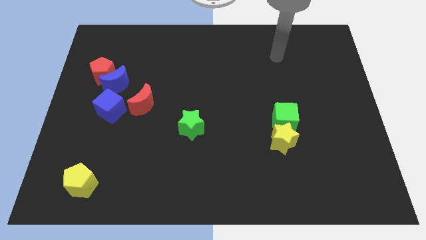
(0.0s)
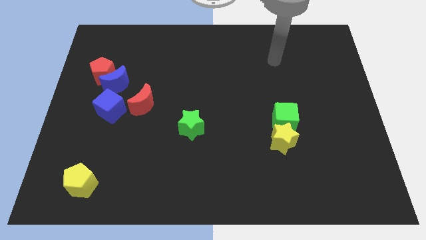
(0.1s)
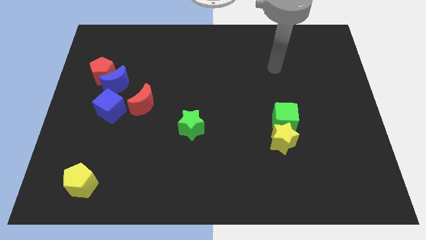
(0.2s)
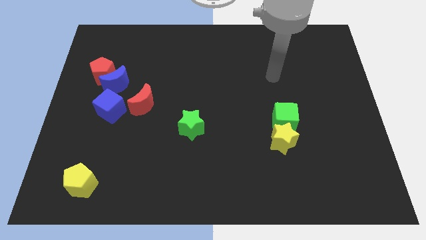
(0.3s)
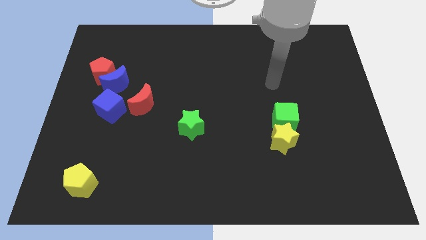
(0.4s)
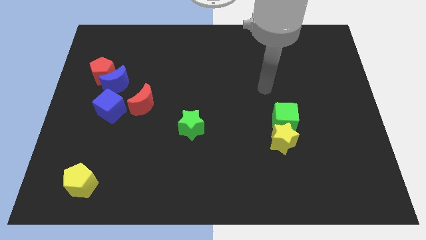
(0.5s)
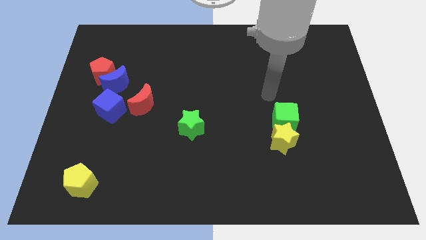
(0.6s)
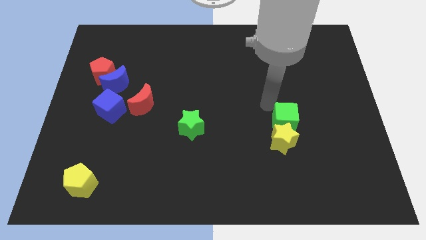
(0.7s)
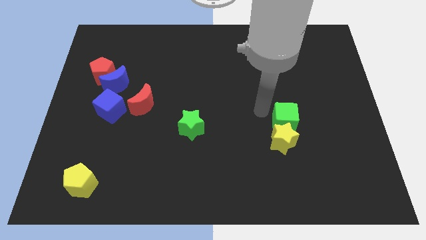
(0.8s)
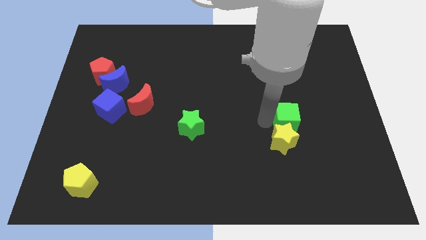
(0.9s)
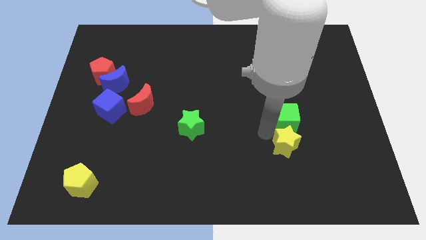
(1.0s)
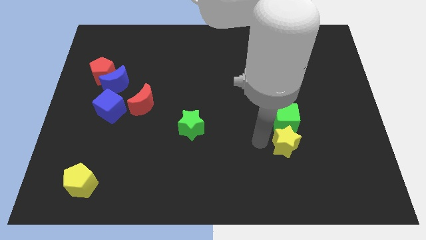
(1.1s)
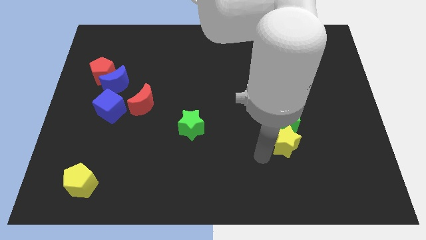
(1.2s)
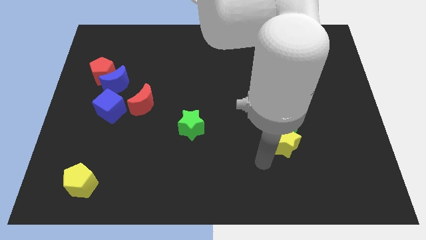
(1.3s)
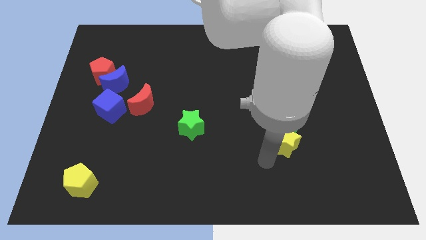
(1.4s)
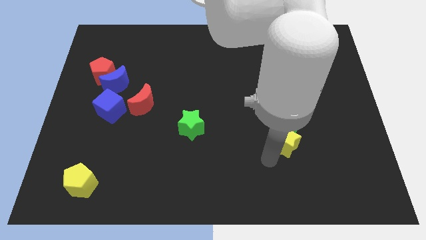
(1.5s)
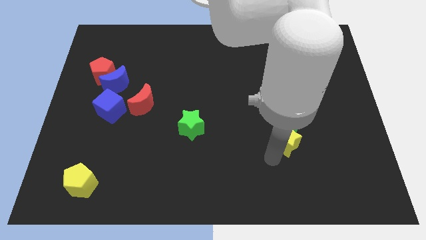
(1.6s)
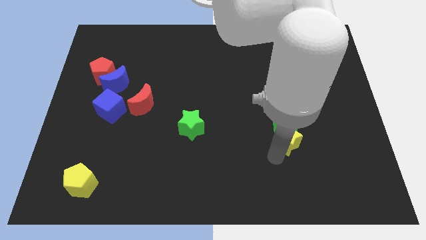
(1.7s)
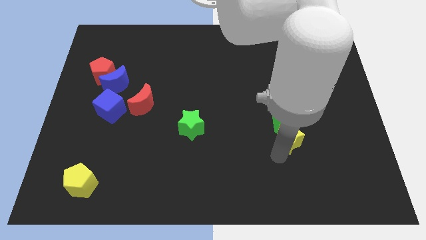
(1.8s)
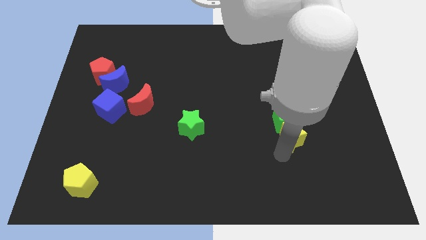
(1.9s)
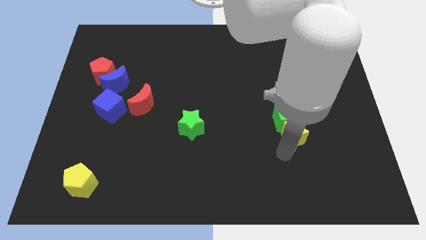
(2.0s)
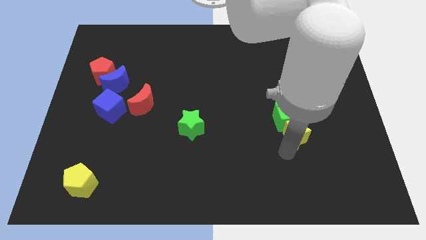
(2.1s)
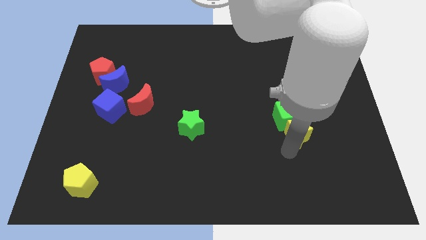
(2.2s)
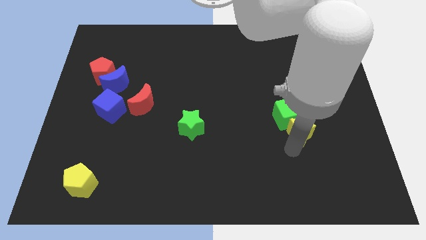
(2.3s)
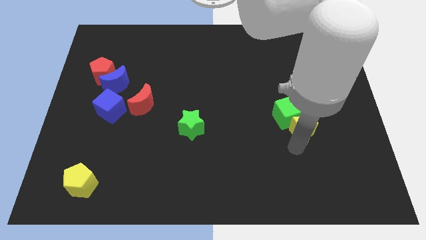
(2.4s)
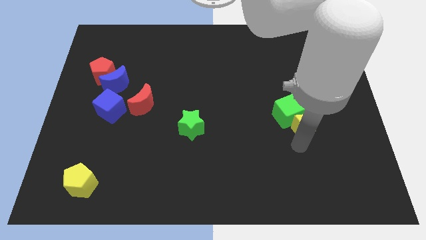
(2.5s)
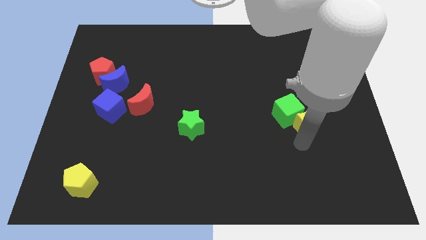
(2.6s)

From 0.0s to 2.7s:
slide the yellow star diagonally upwards and right somewhat

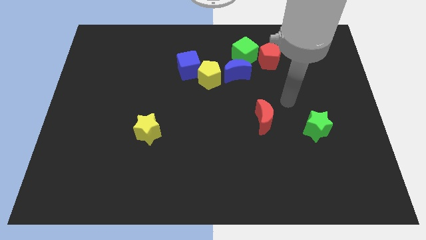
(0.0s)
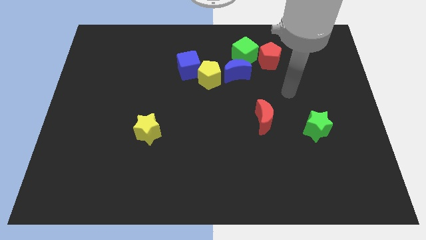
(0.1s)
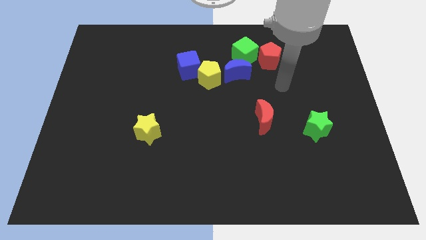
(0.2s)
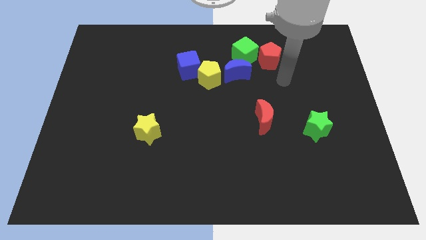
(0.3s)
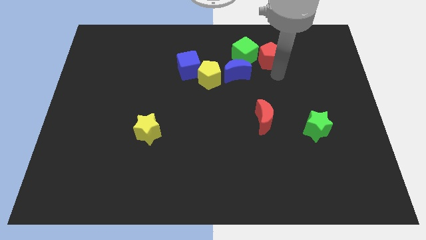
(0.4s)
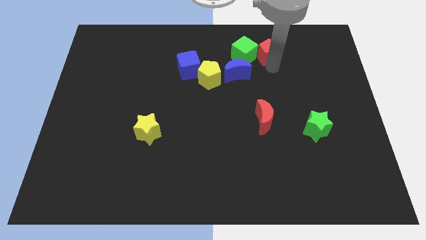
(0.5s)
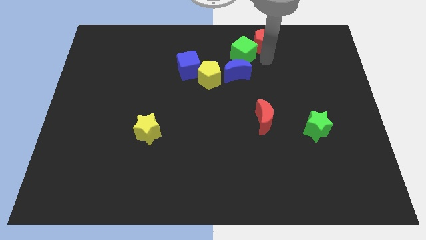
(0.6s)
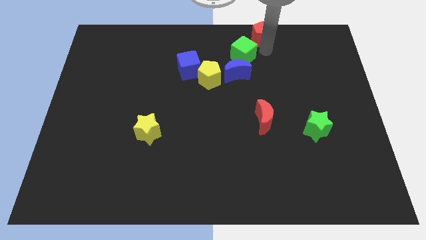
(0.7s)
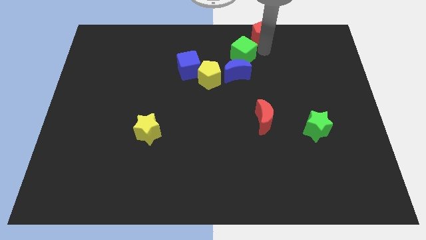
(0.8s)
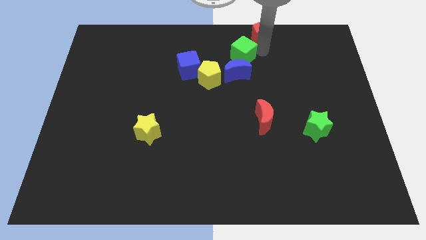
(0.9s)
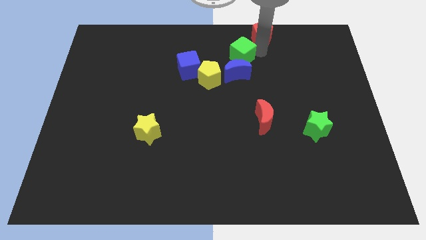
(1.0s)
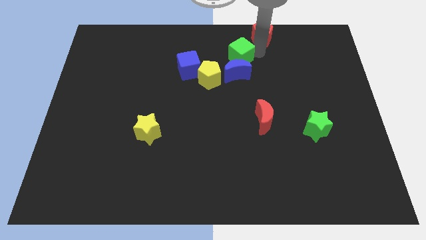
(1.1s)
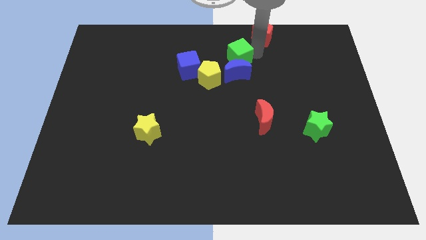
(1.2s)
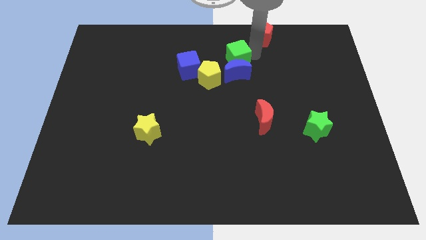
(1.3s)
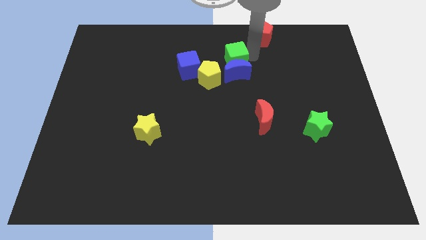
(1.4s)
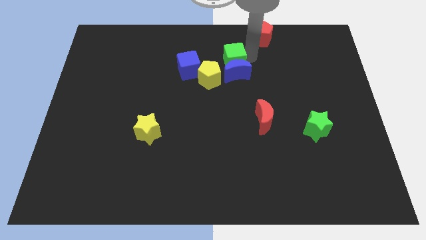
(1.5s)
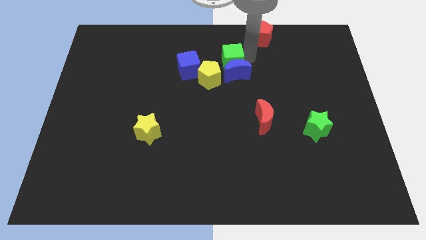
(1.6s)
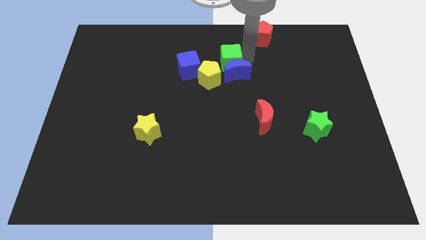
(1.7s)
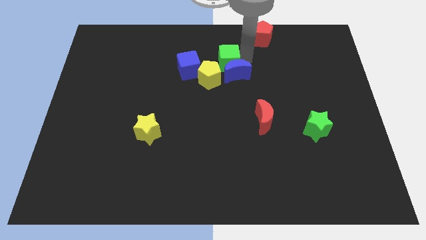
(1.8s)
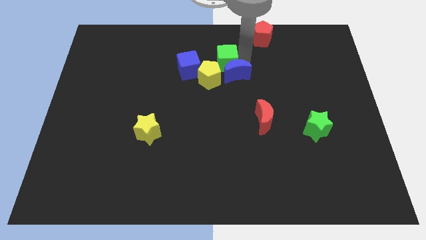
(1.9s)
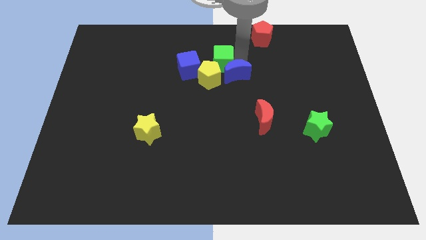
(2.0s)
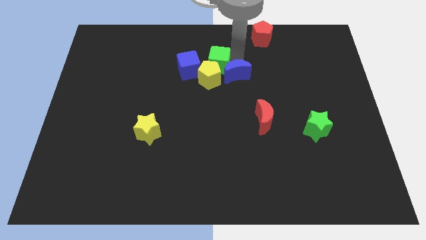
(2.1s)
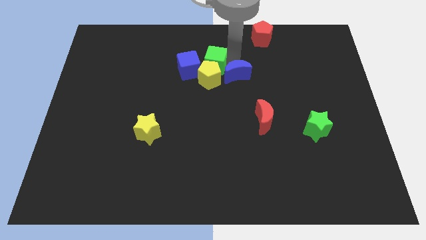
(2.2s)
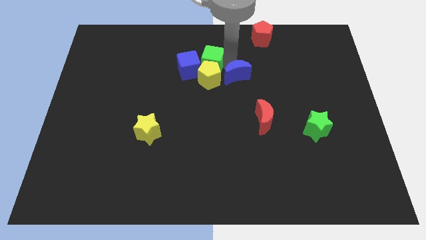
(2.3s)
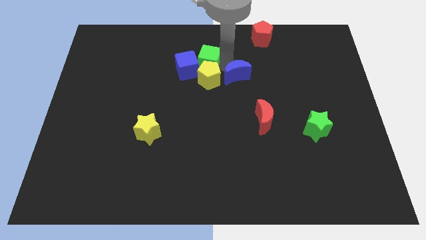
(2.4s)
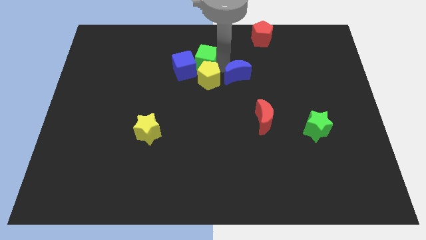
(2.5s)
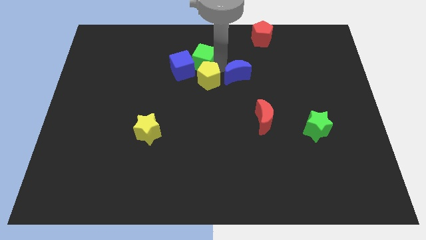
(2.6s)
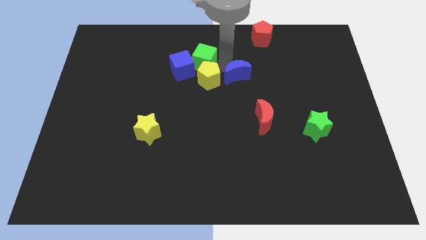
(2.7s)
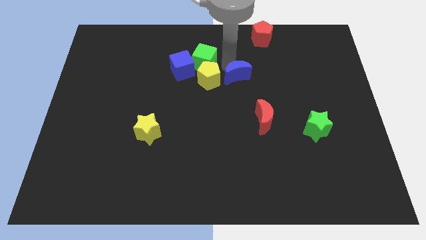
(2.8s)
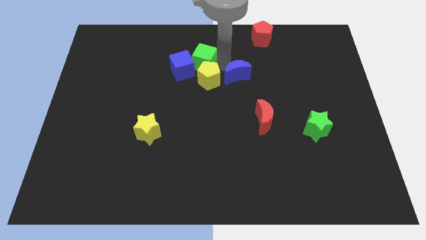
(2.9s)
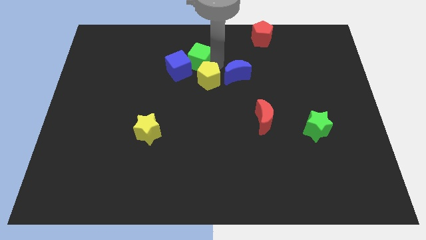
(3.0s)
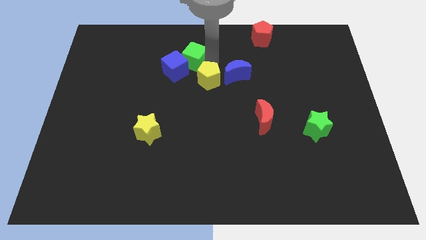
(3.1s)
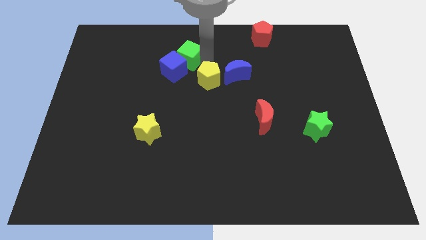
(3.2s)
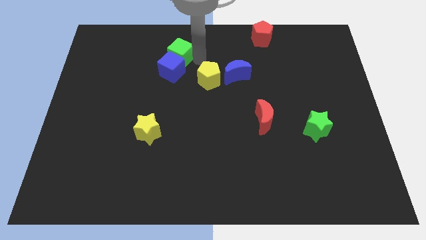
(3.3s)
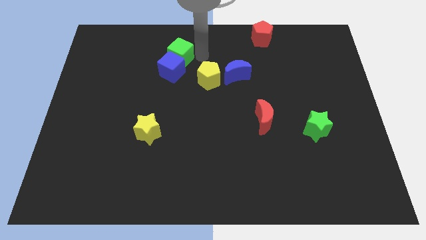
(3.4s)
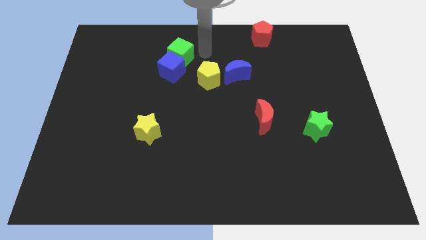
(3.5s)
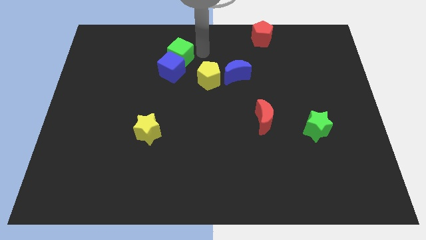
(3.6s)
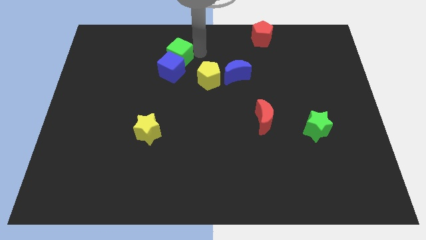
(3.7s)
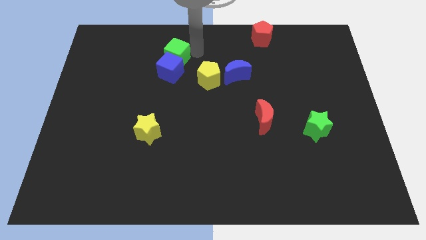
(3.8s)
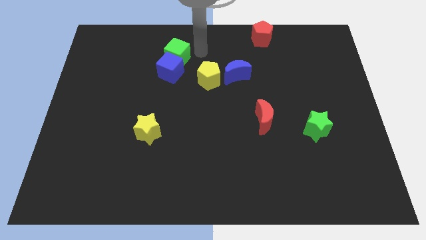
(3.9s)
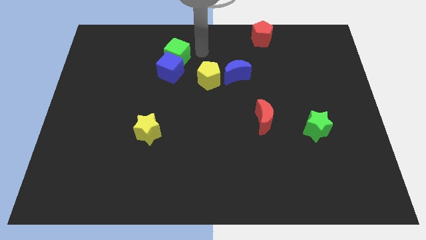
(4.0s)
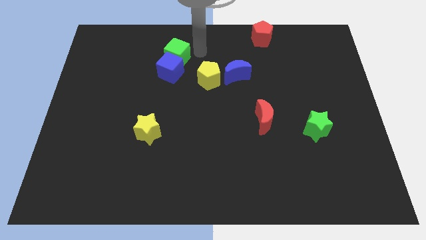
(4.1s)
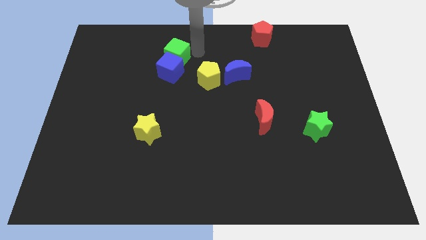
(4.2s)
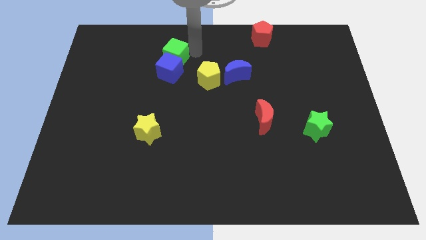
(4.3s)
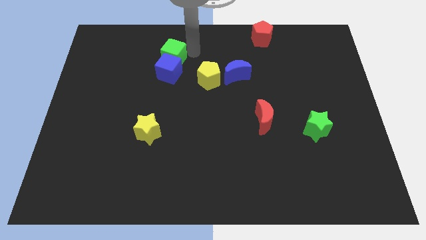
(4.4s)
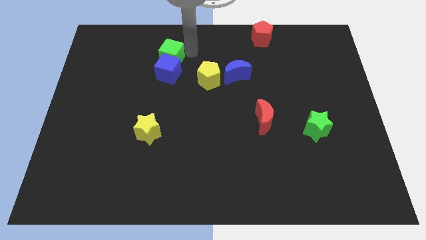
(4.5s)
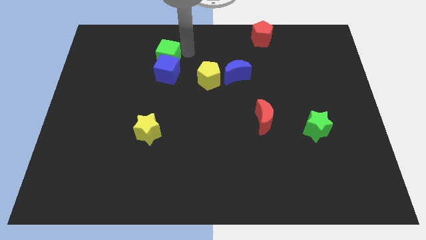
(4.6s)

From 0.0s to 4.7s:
push the green cube to the left

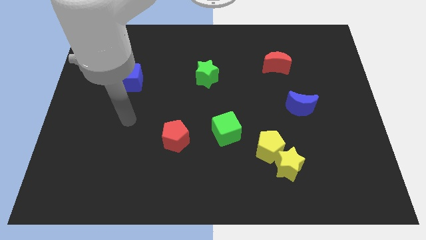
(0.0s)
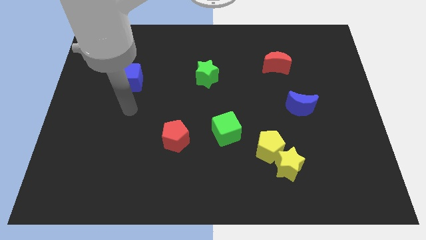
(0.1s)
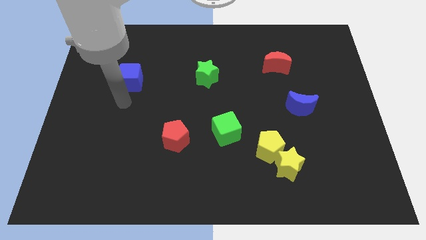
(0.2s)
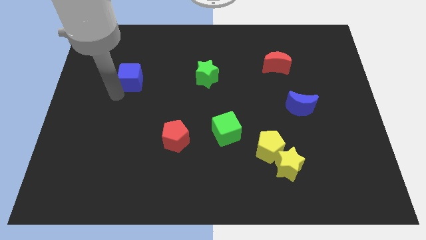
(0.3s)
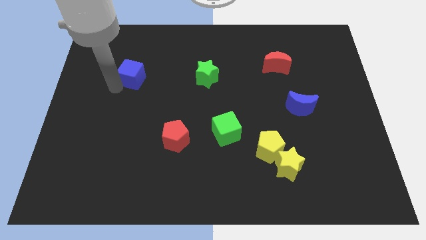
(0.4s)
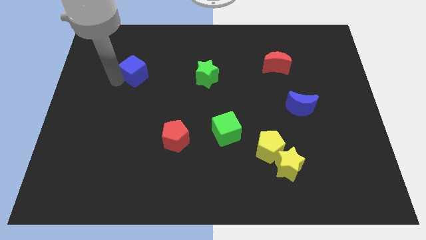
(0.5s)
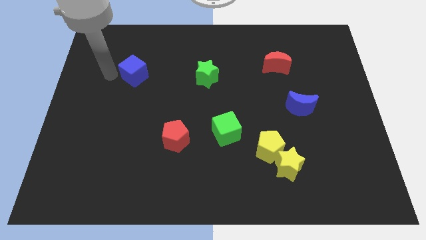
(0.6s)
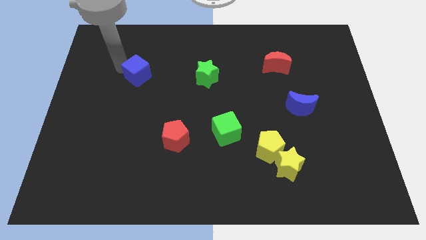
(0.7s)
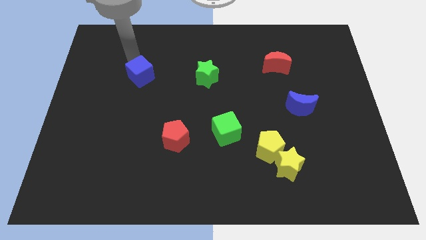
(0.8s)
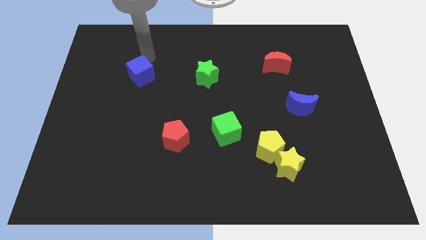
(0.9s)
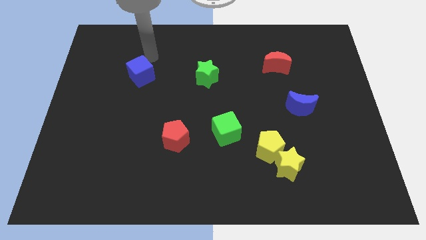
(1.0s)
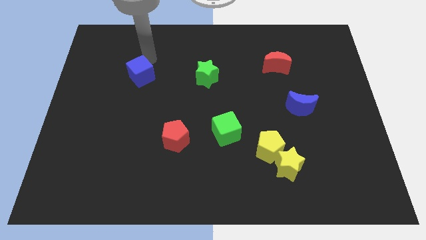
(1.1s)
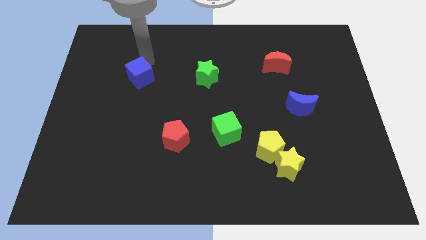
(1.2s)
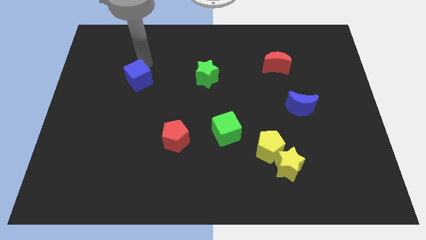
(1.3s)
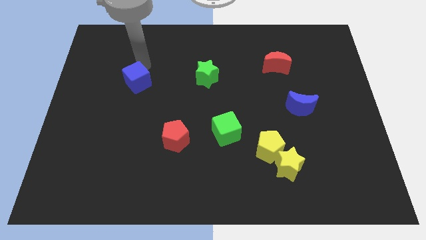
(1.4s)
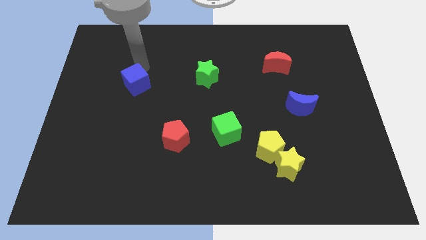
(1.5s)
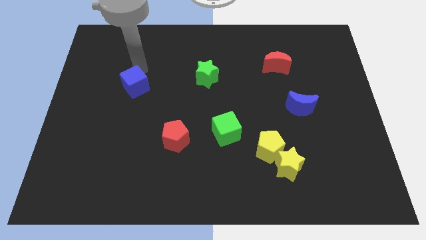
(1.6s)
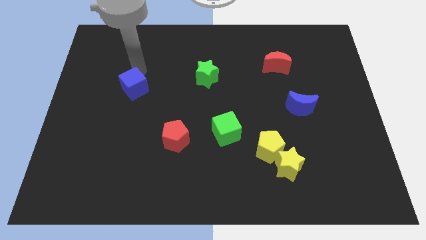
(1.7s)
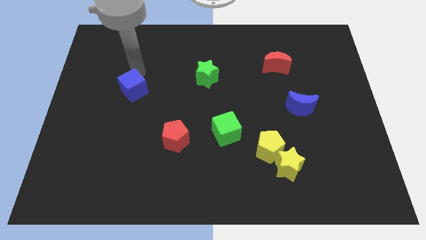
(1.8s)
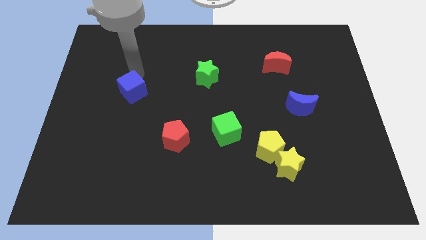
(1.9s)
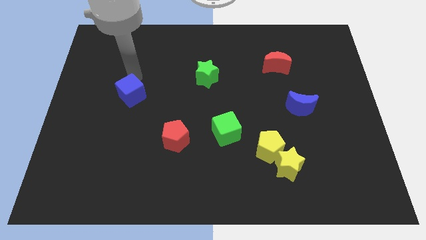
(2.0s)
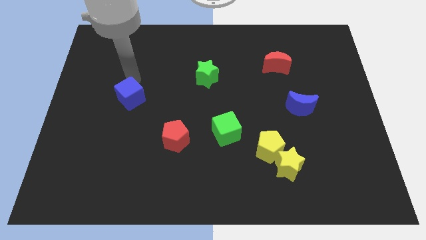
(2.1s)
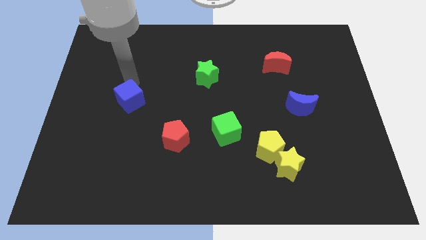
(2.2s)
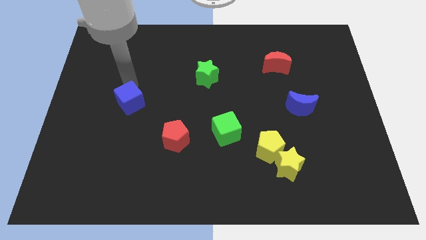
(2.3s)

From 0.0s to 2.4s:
move the blue cube downwards a little bit
